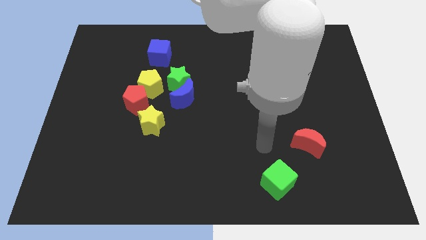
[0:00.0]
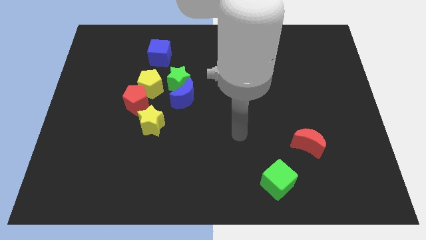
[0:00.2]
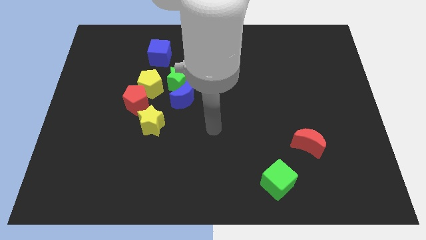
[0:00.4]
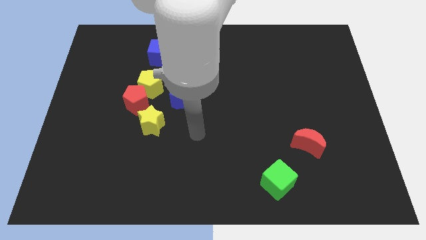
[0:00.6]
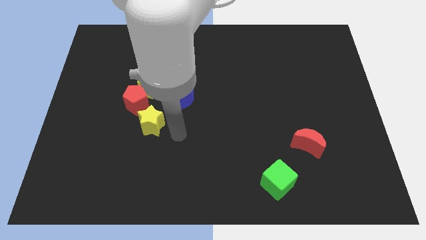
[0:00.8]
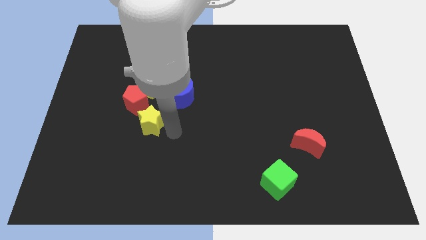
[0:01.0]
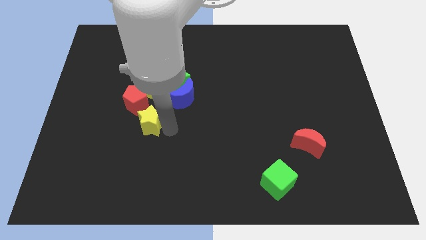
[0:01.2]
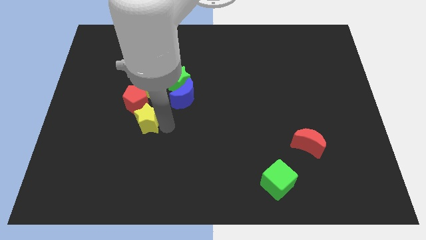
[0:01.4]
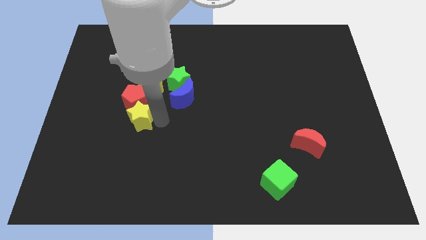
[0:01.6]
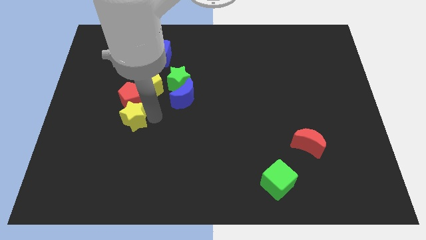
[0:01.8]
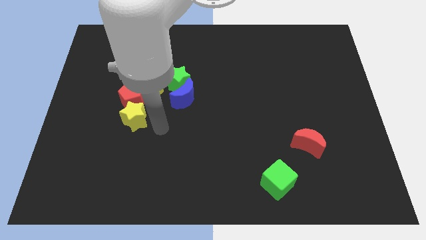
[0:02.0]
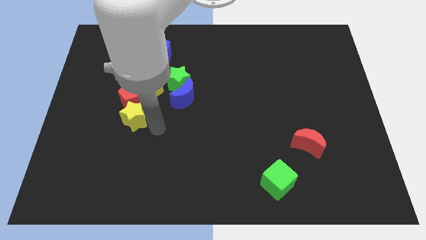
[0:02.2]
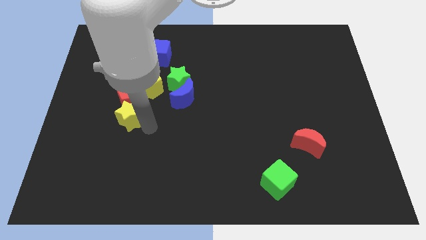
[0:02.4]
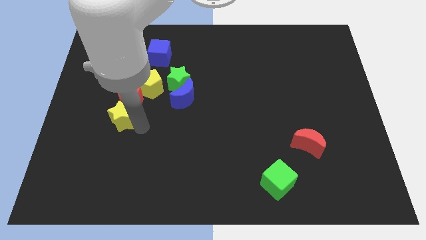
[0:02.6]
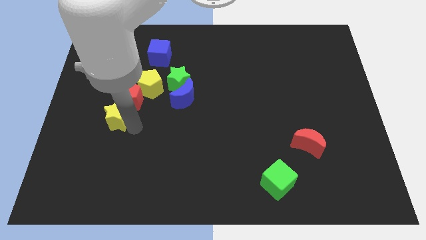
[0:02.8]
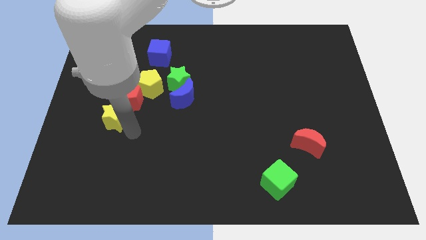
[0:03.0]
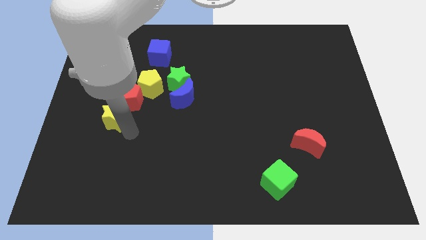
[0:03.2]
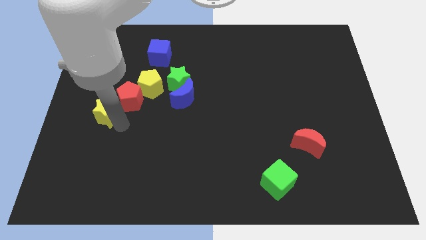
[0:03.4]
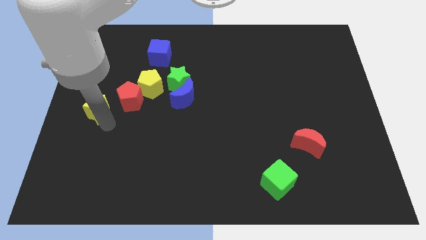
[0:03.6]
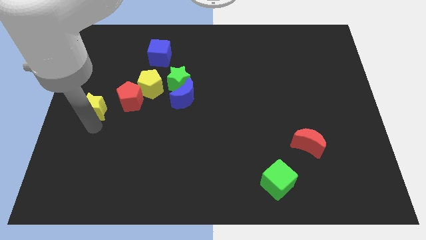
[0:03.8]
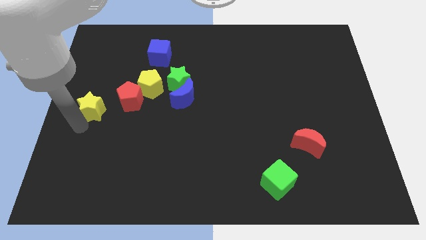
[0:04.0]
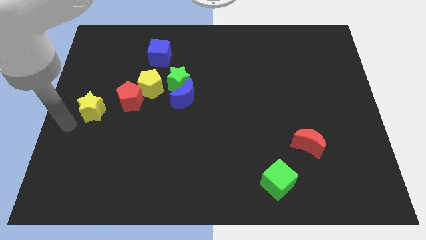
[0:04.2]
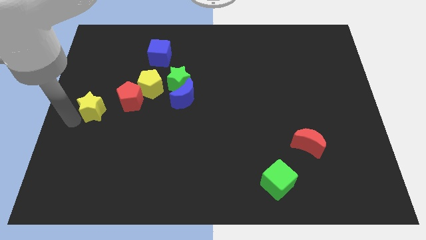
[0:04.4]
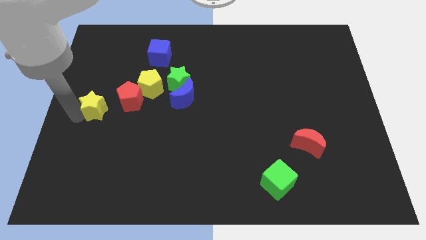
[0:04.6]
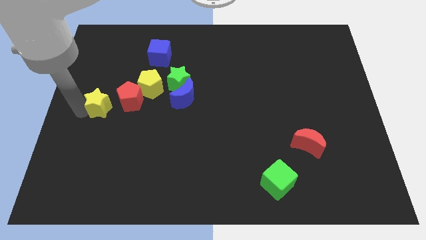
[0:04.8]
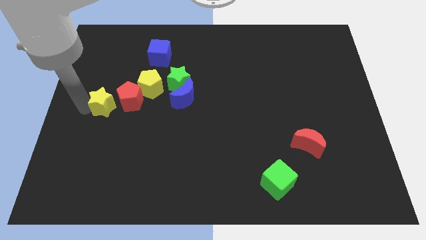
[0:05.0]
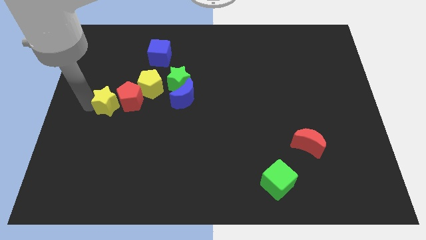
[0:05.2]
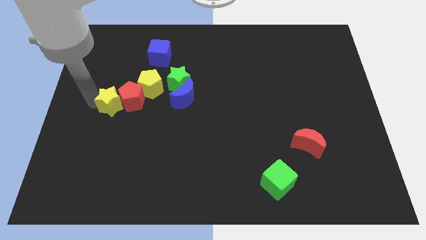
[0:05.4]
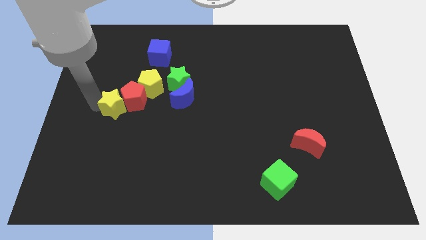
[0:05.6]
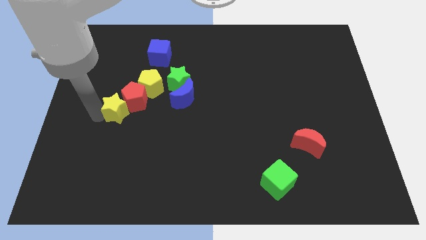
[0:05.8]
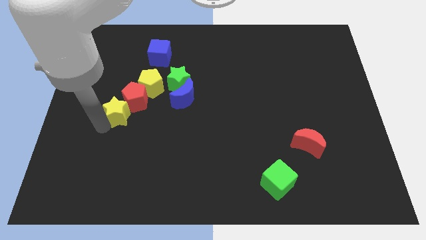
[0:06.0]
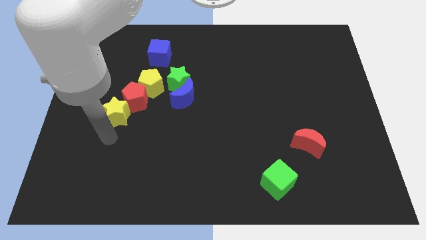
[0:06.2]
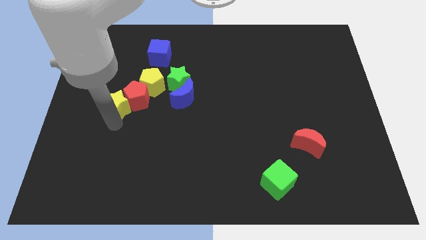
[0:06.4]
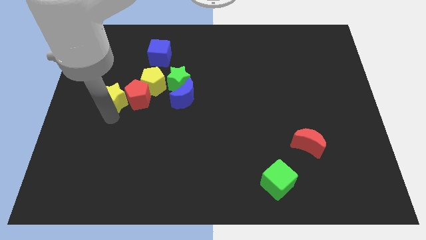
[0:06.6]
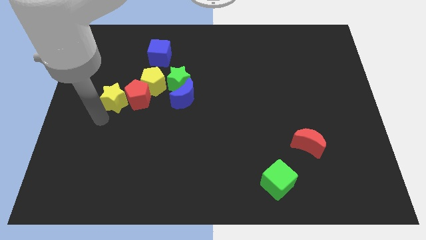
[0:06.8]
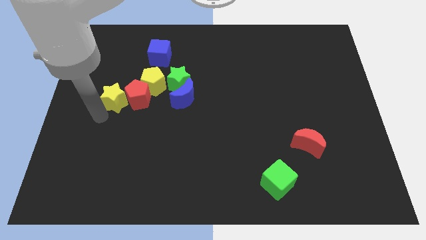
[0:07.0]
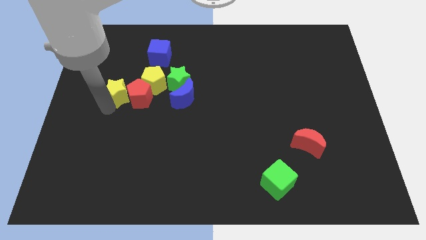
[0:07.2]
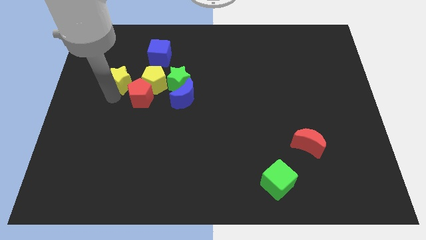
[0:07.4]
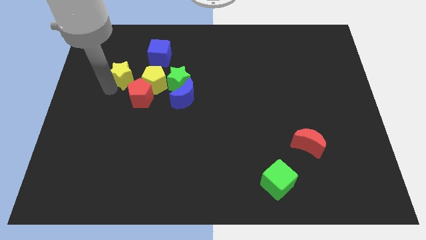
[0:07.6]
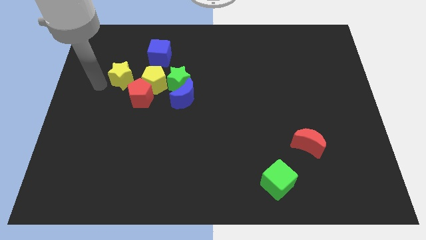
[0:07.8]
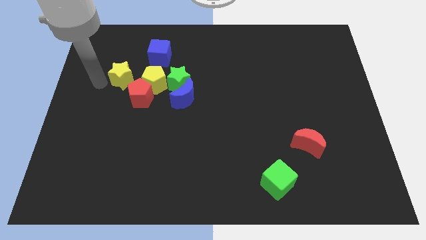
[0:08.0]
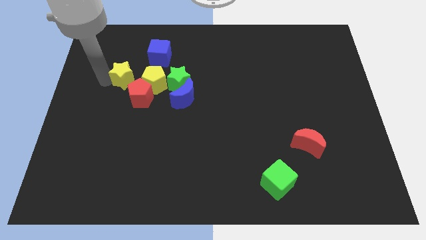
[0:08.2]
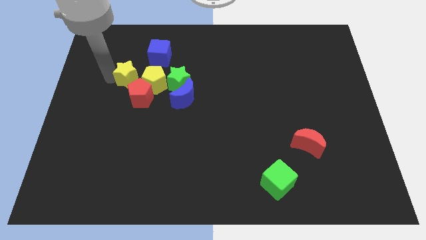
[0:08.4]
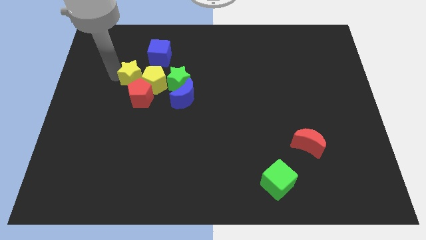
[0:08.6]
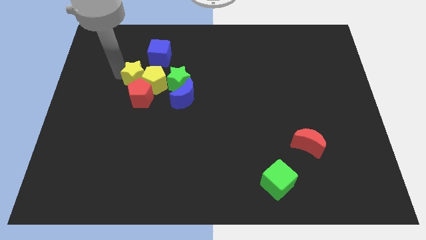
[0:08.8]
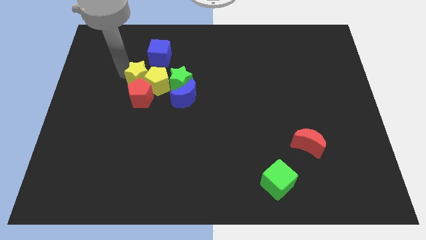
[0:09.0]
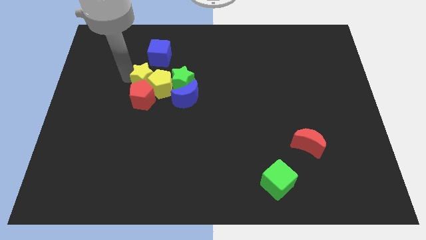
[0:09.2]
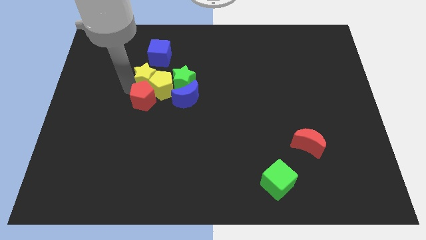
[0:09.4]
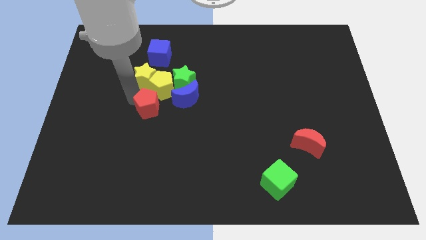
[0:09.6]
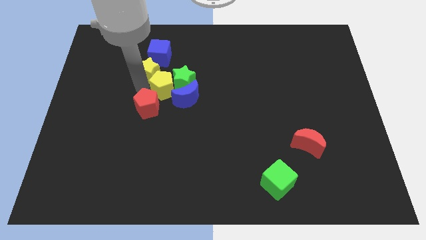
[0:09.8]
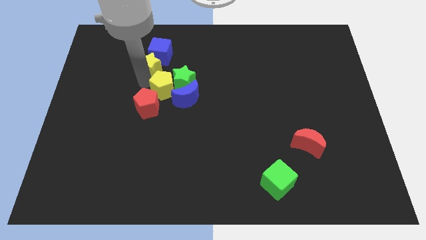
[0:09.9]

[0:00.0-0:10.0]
put the yellow star towards the blue cube

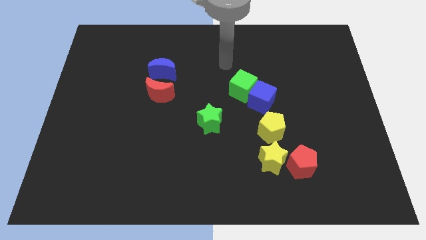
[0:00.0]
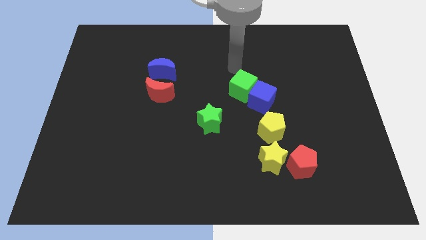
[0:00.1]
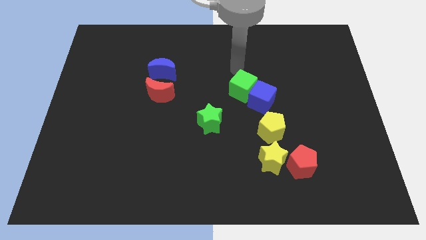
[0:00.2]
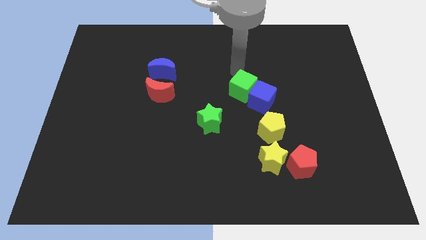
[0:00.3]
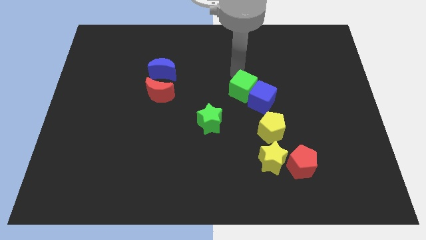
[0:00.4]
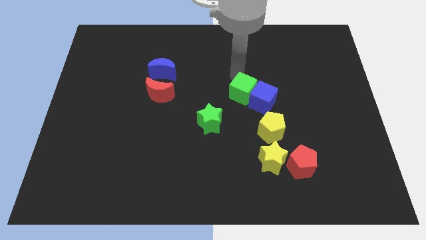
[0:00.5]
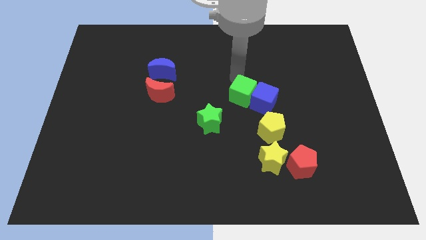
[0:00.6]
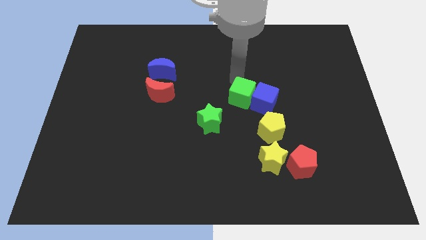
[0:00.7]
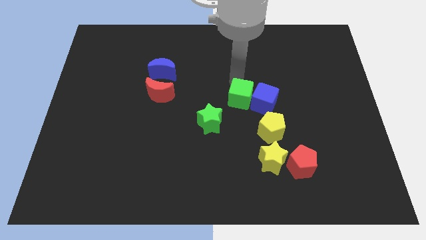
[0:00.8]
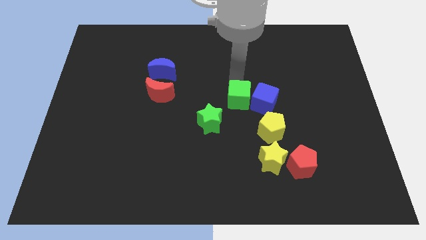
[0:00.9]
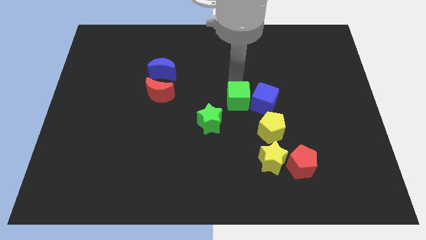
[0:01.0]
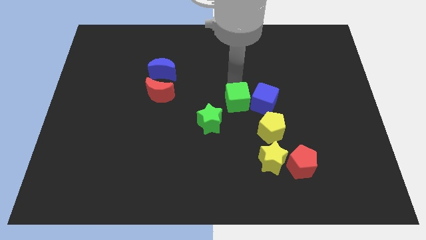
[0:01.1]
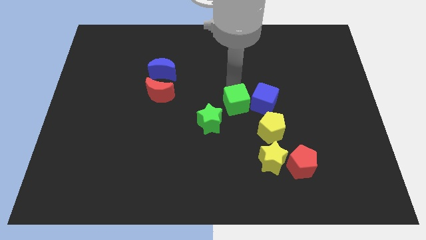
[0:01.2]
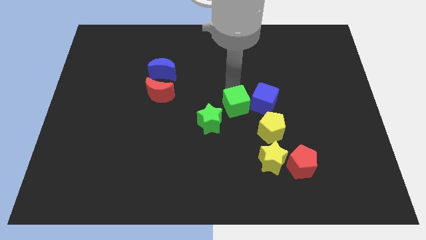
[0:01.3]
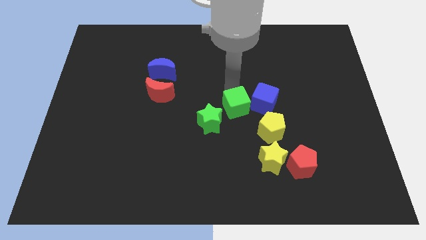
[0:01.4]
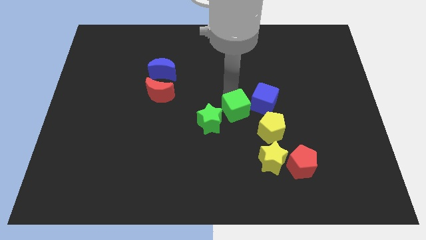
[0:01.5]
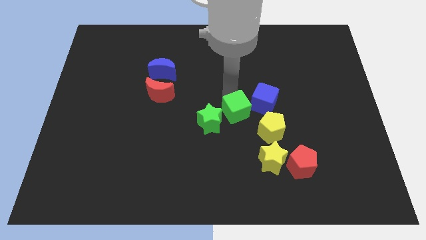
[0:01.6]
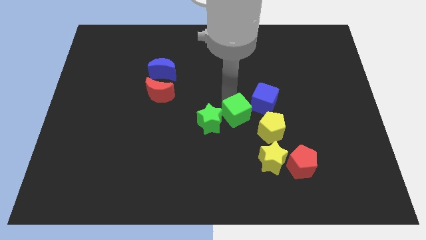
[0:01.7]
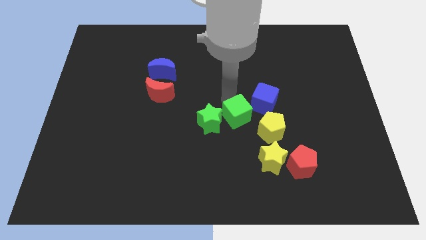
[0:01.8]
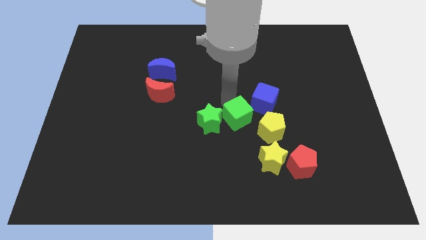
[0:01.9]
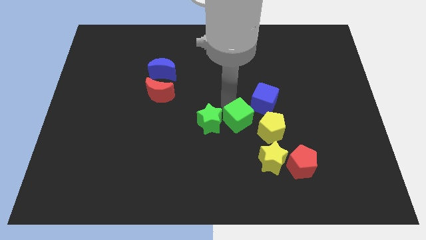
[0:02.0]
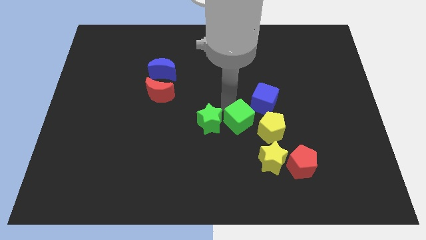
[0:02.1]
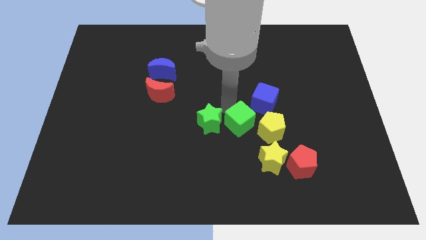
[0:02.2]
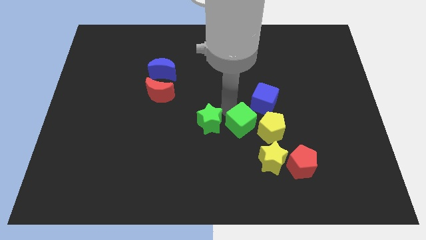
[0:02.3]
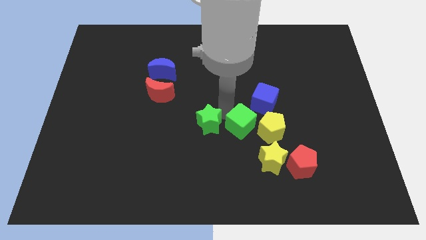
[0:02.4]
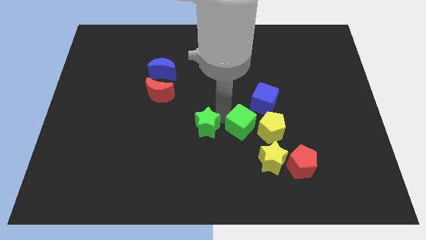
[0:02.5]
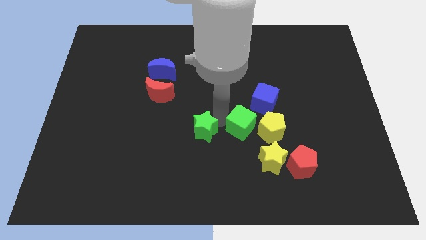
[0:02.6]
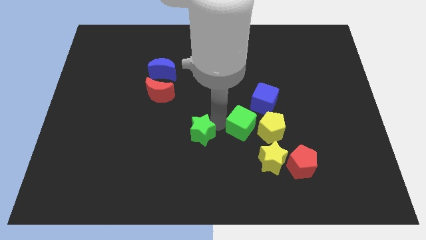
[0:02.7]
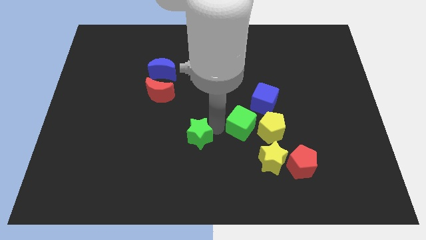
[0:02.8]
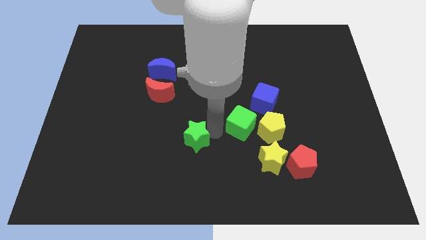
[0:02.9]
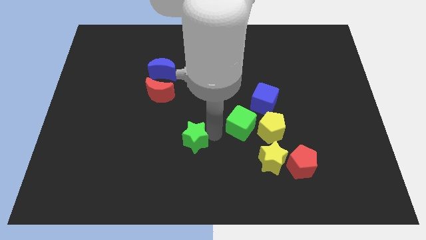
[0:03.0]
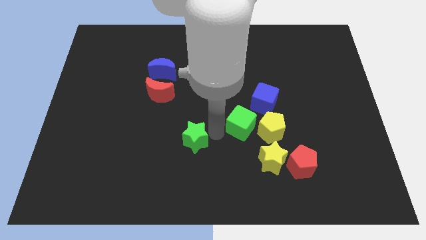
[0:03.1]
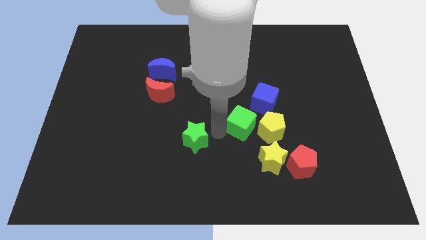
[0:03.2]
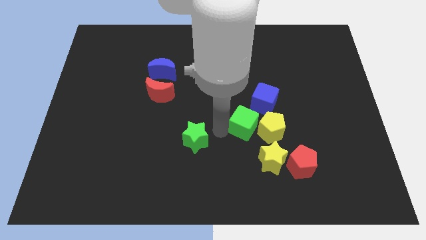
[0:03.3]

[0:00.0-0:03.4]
push the green cube close to the yellow pentagon
